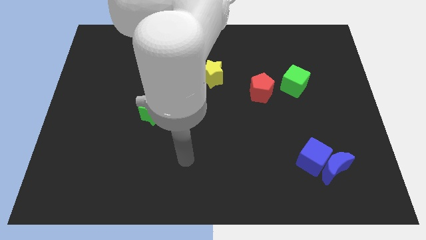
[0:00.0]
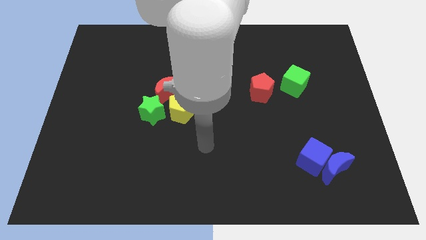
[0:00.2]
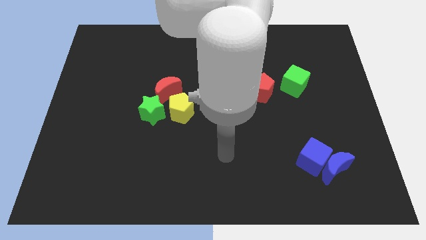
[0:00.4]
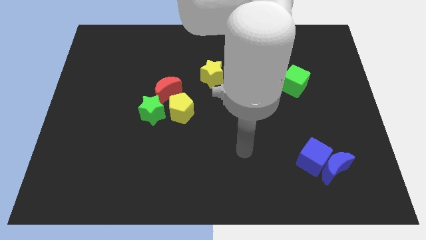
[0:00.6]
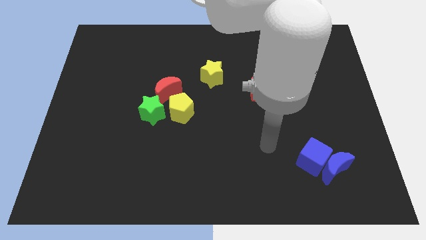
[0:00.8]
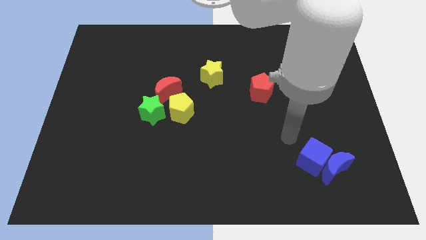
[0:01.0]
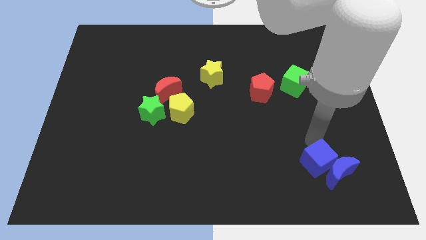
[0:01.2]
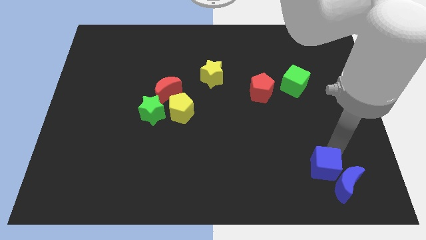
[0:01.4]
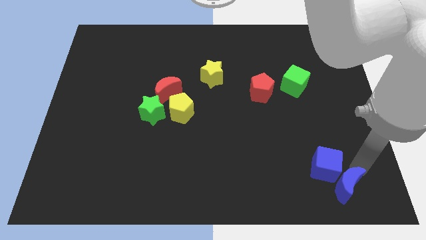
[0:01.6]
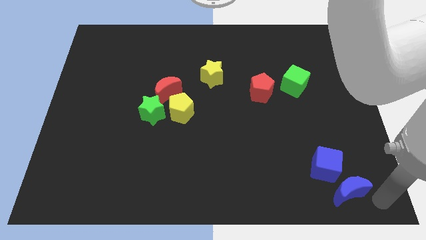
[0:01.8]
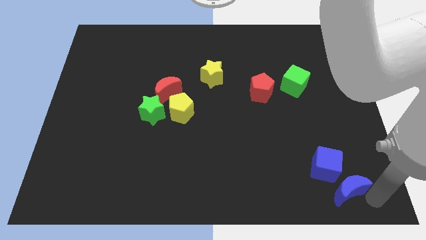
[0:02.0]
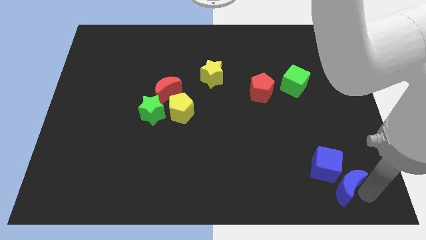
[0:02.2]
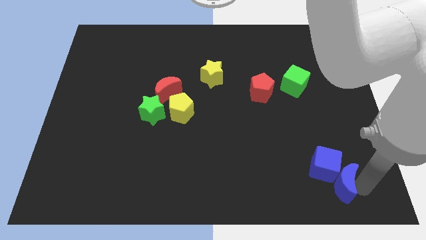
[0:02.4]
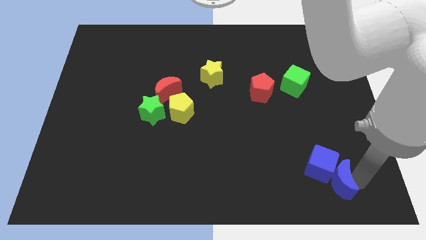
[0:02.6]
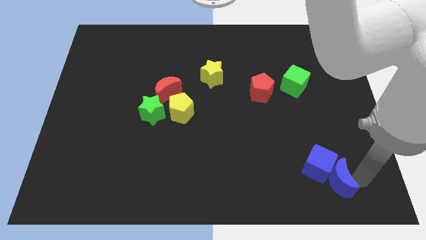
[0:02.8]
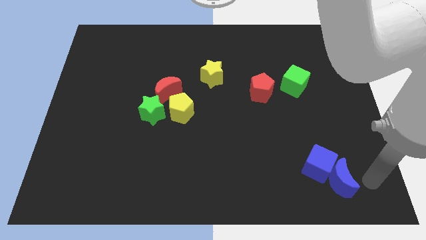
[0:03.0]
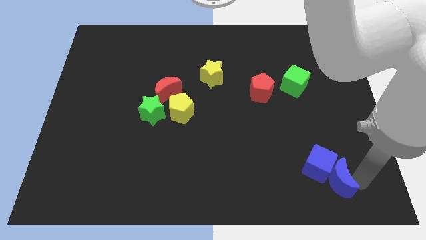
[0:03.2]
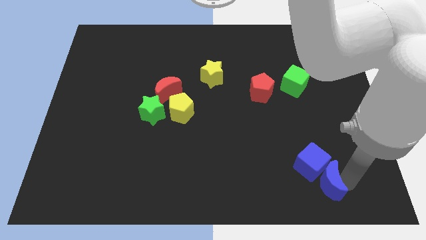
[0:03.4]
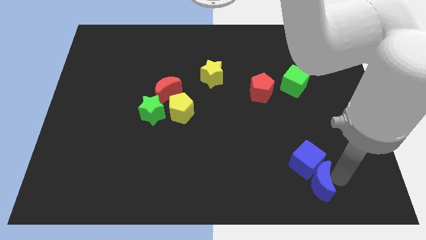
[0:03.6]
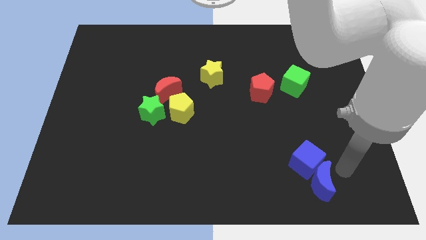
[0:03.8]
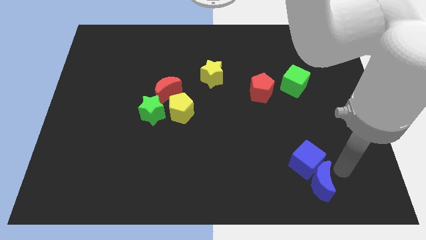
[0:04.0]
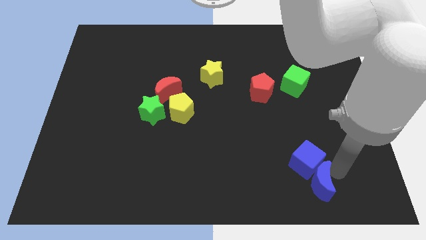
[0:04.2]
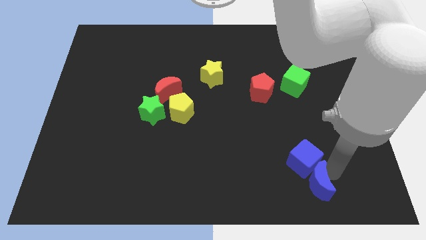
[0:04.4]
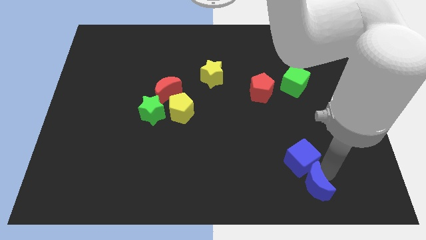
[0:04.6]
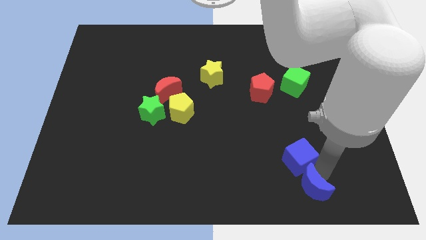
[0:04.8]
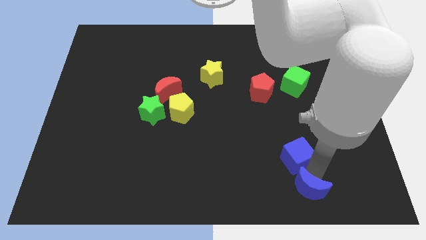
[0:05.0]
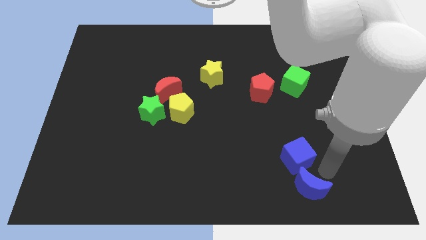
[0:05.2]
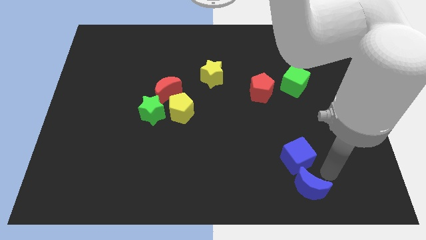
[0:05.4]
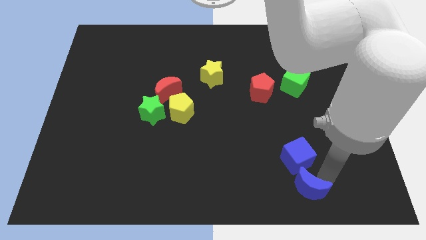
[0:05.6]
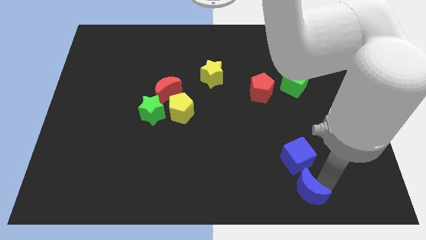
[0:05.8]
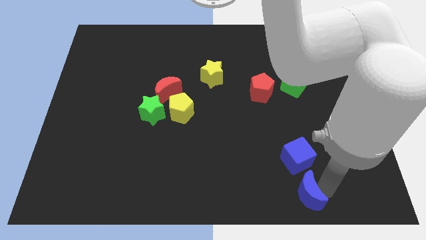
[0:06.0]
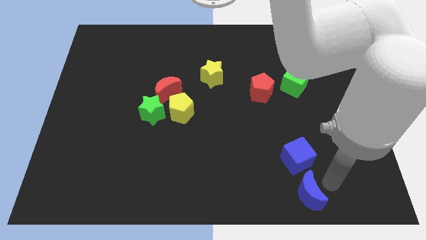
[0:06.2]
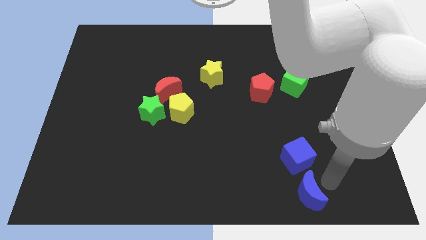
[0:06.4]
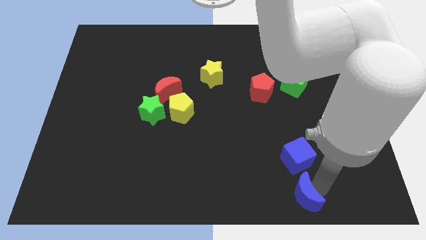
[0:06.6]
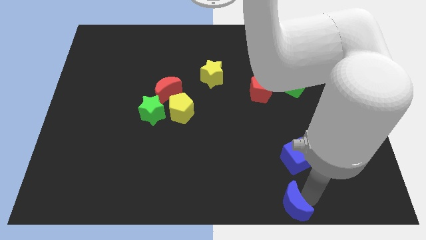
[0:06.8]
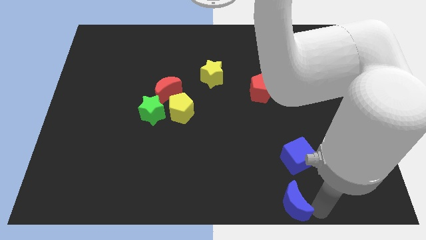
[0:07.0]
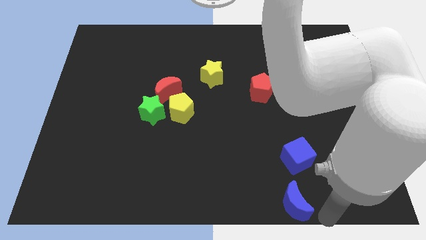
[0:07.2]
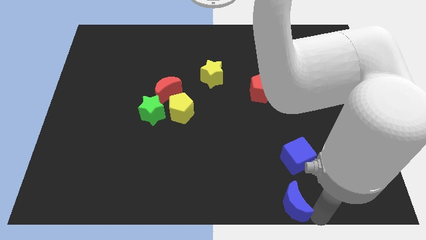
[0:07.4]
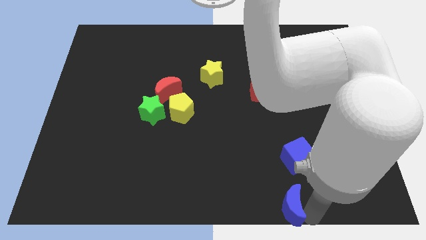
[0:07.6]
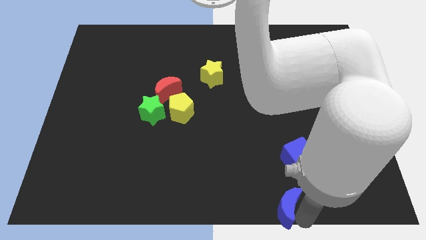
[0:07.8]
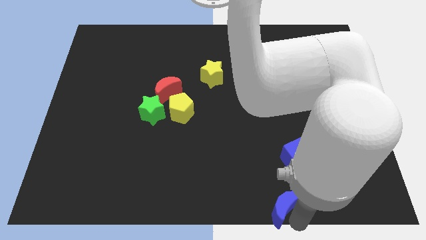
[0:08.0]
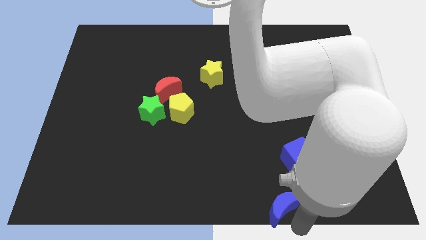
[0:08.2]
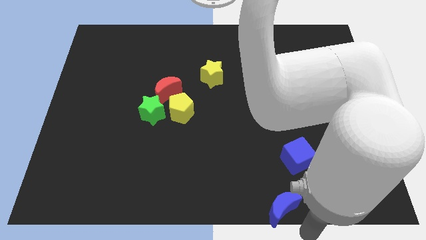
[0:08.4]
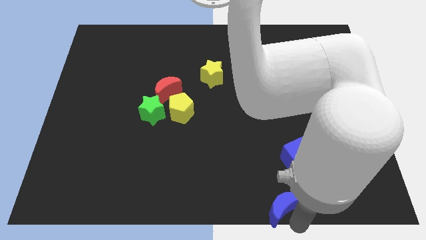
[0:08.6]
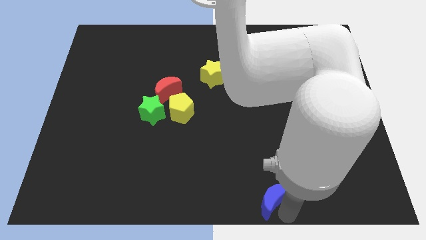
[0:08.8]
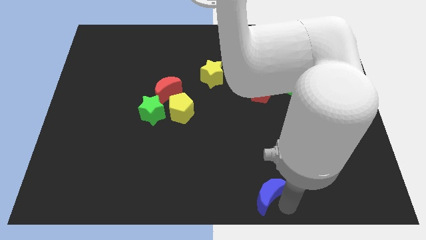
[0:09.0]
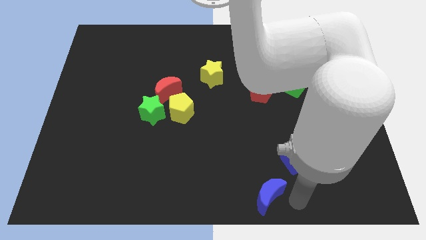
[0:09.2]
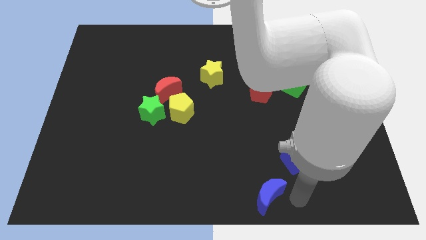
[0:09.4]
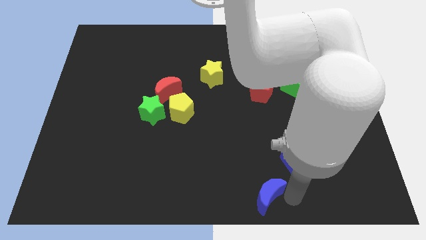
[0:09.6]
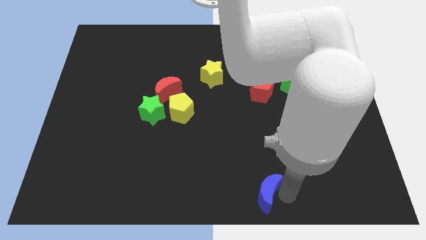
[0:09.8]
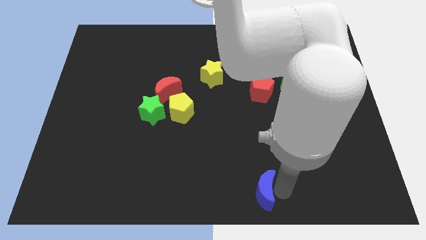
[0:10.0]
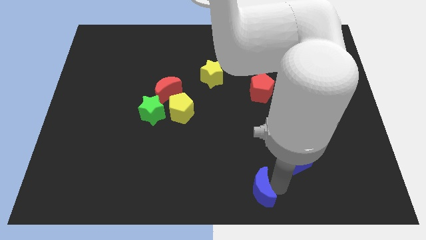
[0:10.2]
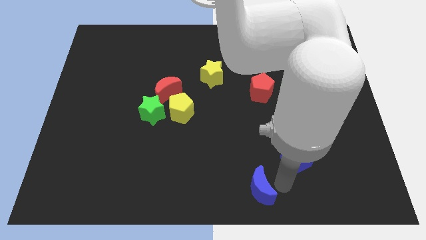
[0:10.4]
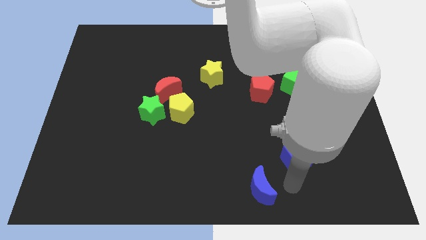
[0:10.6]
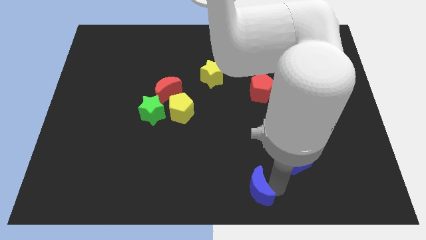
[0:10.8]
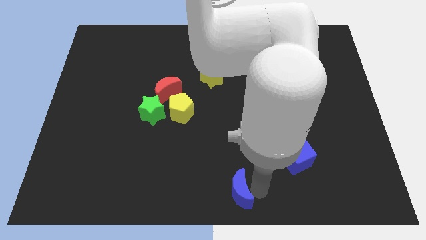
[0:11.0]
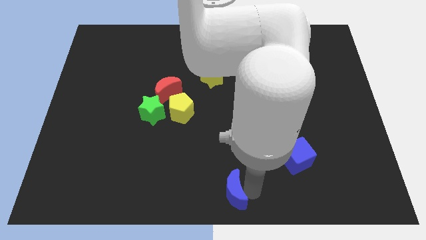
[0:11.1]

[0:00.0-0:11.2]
move the blue moon left

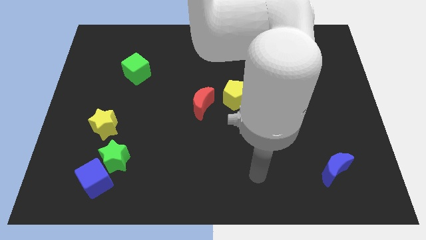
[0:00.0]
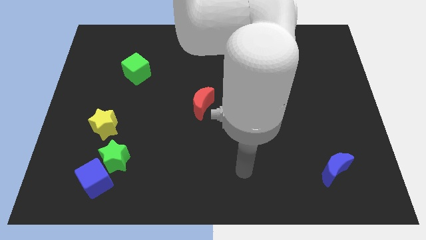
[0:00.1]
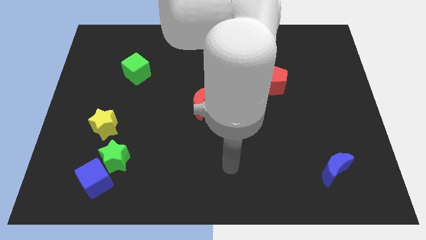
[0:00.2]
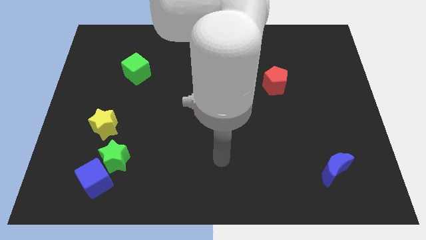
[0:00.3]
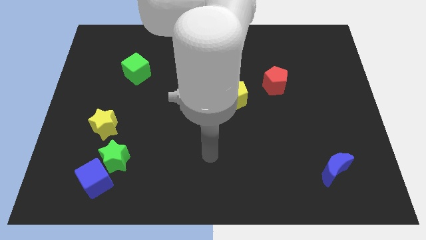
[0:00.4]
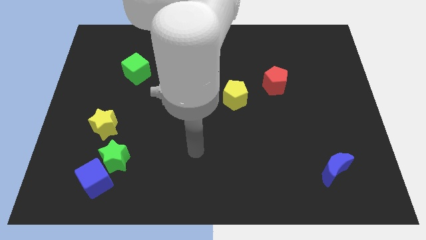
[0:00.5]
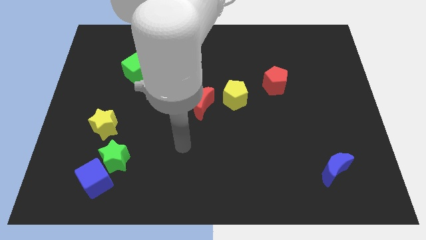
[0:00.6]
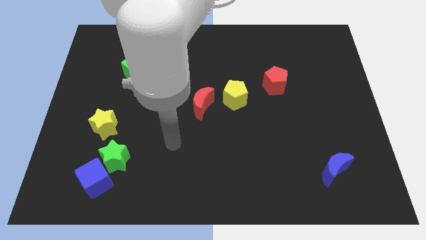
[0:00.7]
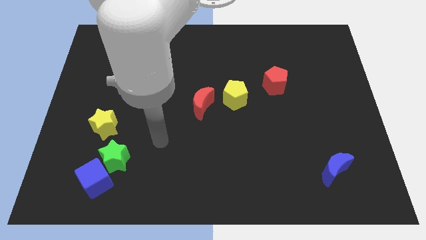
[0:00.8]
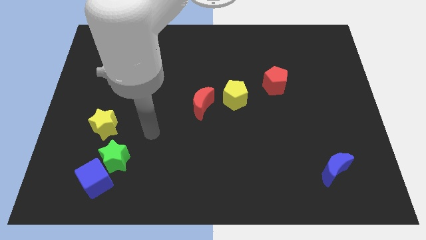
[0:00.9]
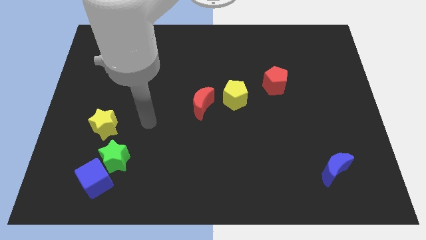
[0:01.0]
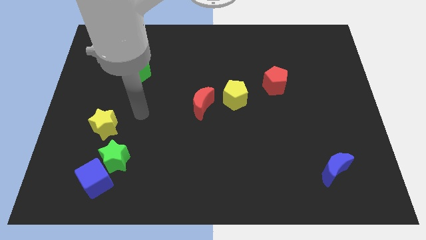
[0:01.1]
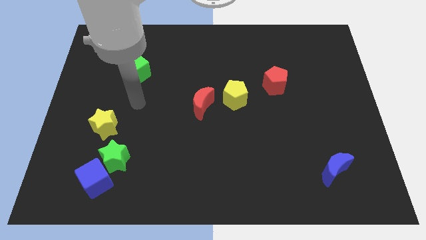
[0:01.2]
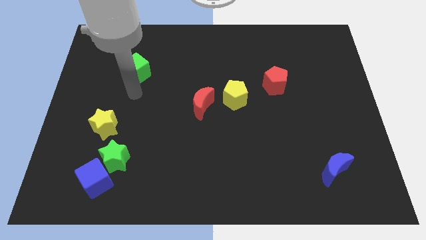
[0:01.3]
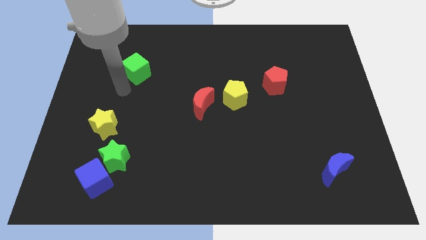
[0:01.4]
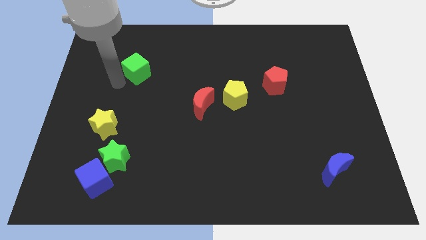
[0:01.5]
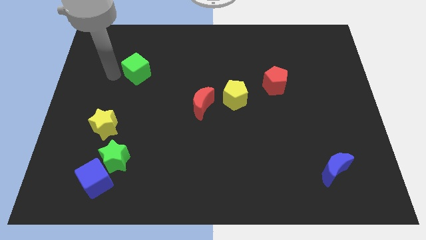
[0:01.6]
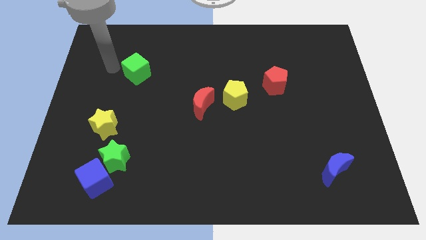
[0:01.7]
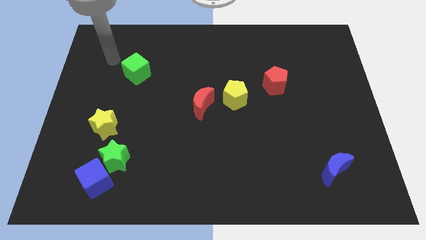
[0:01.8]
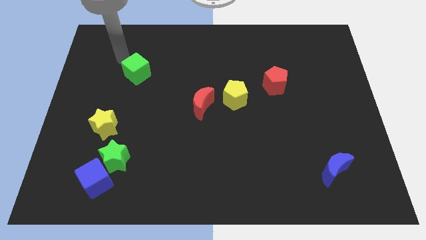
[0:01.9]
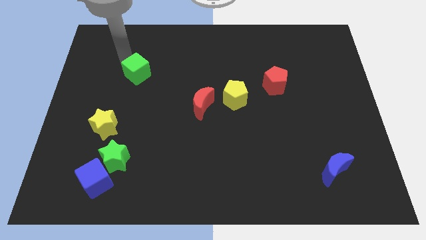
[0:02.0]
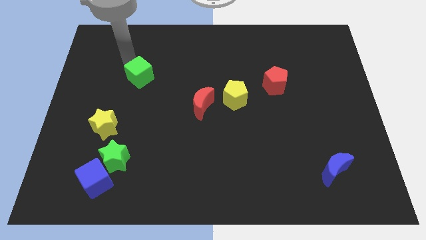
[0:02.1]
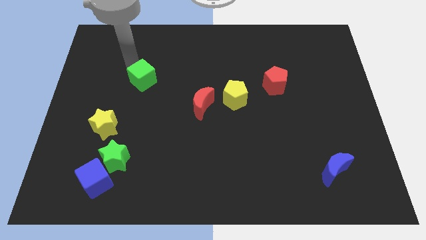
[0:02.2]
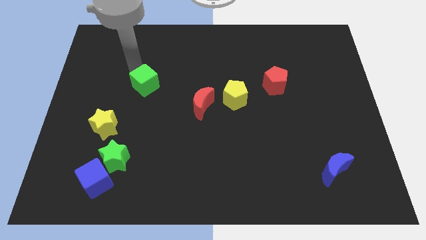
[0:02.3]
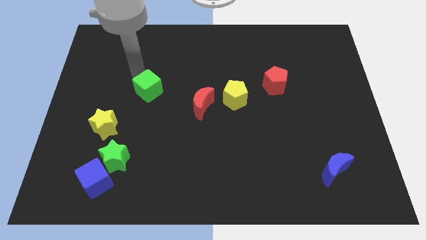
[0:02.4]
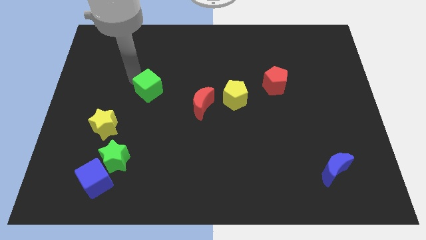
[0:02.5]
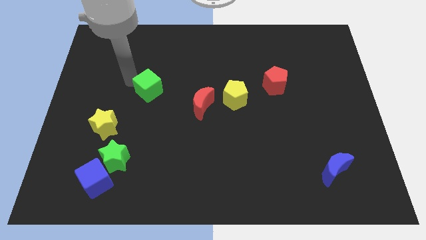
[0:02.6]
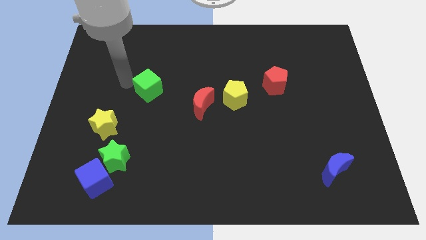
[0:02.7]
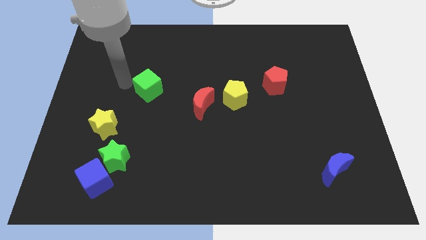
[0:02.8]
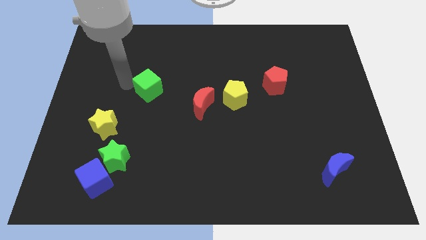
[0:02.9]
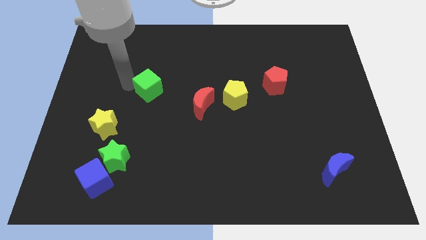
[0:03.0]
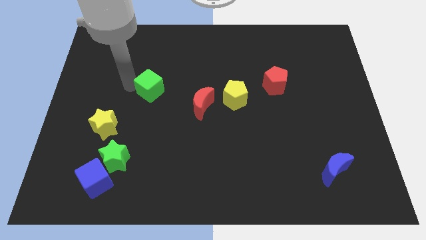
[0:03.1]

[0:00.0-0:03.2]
slightly slide the green cube downwards and right diagonally
